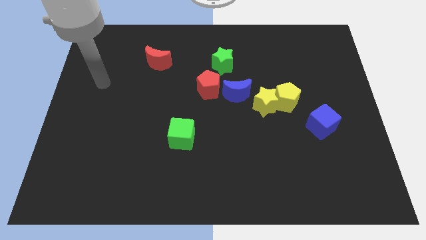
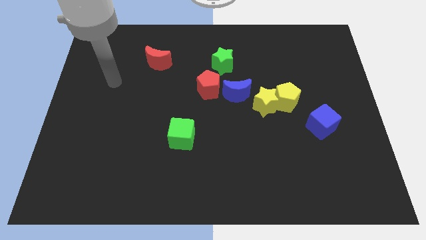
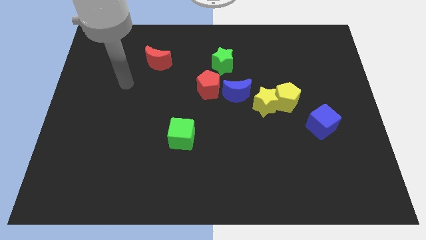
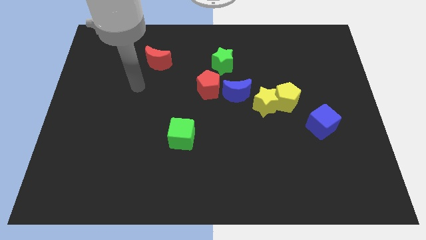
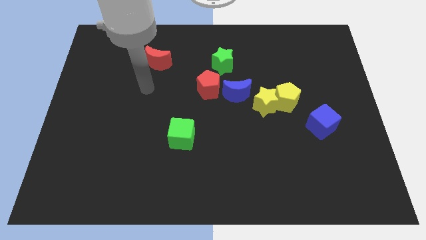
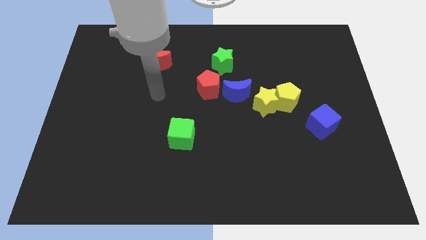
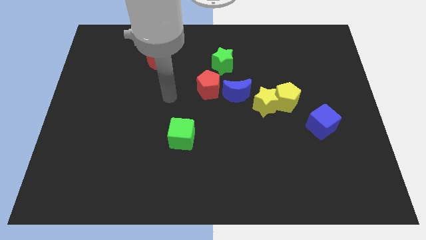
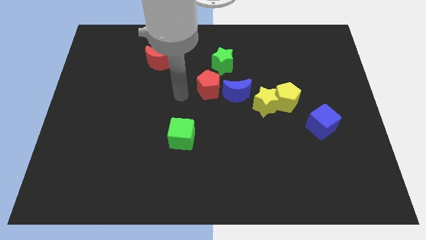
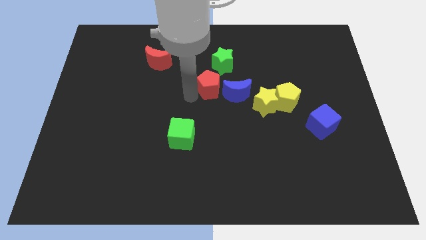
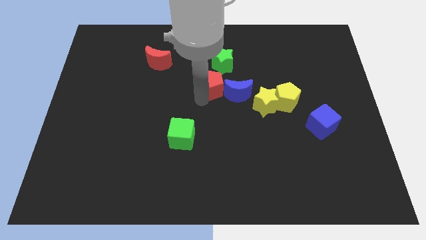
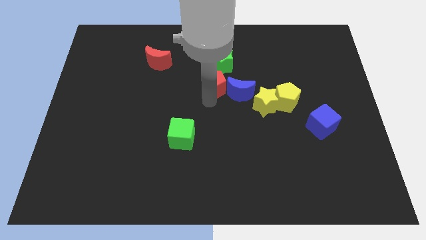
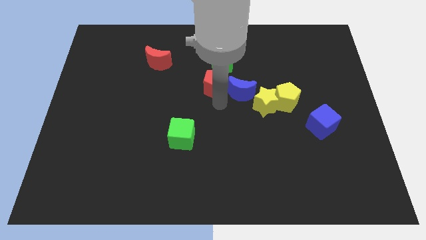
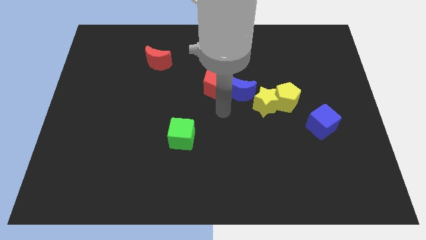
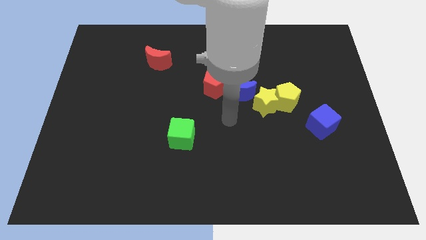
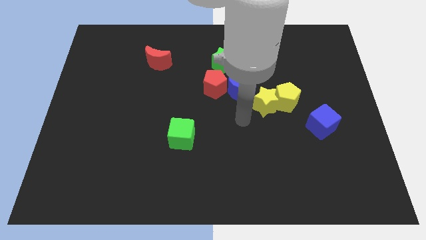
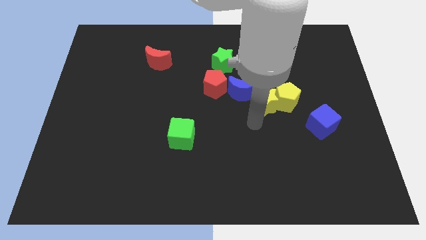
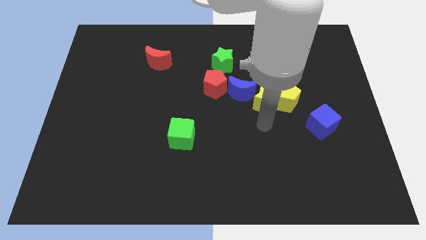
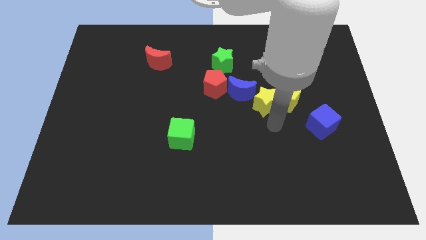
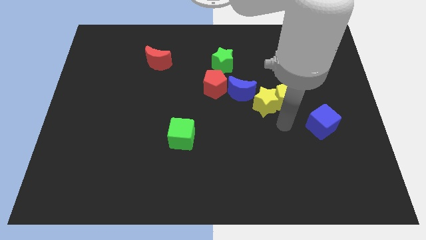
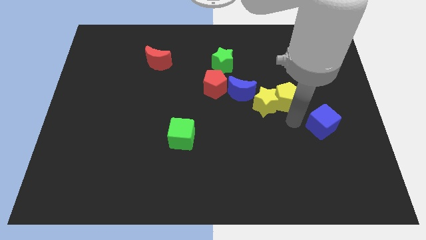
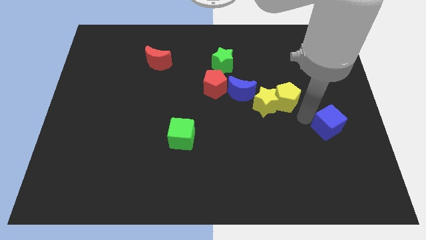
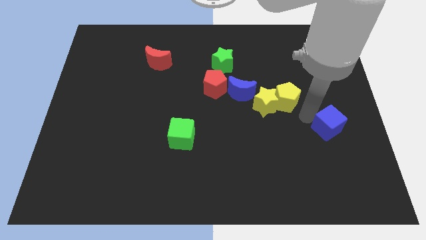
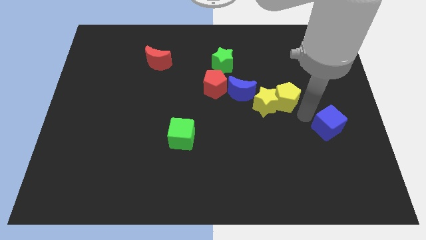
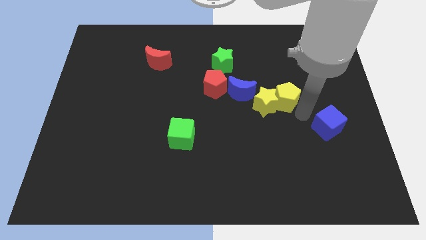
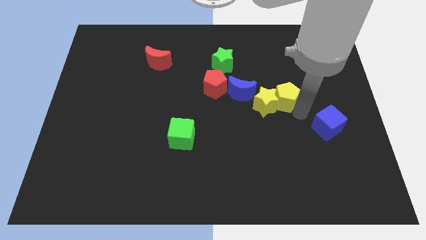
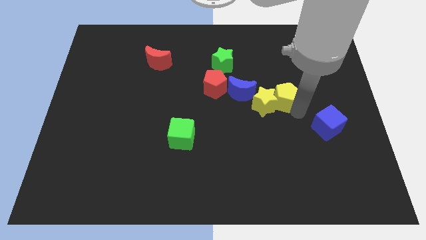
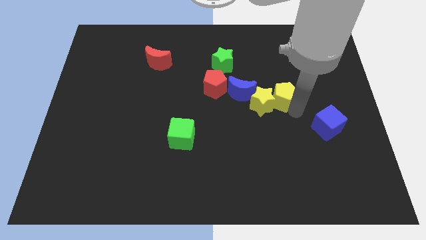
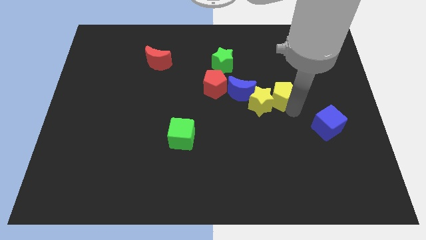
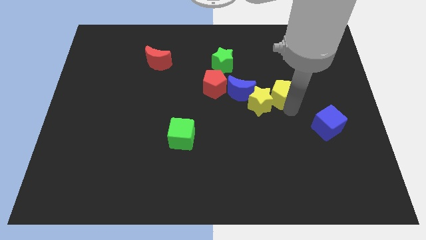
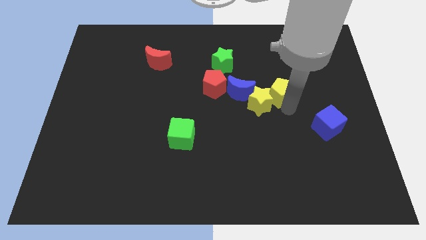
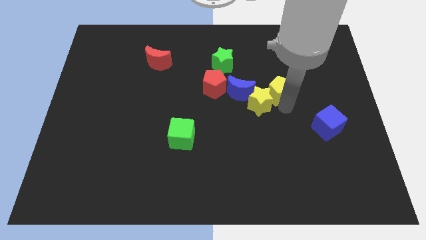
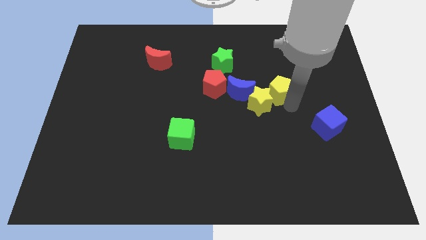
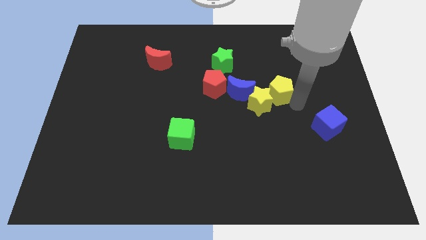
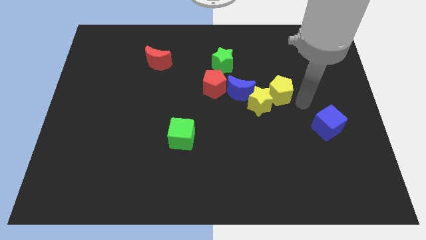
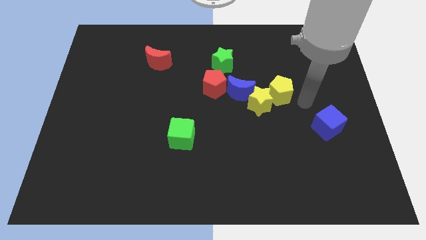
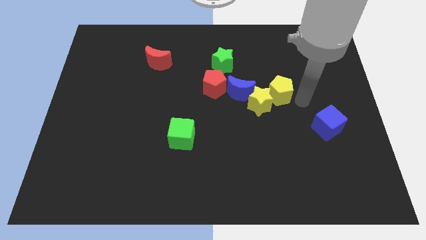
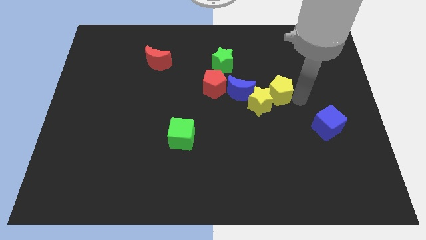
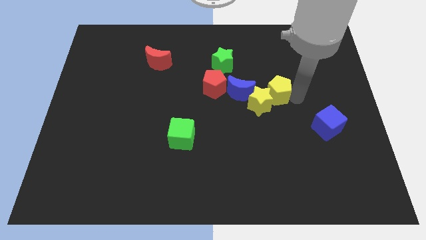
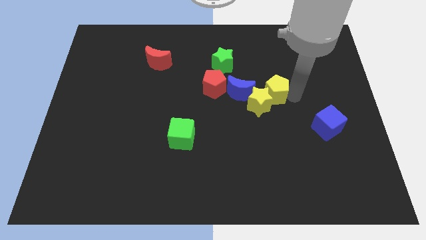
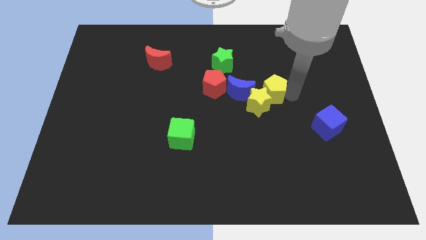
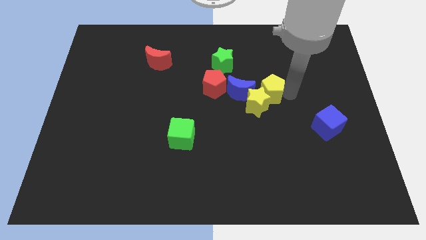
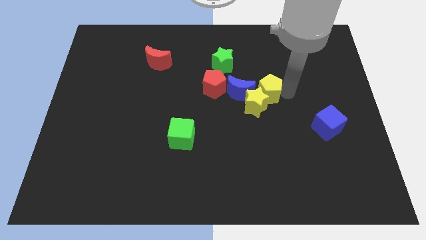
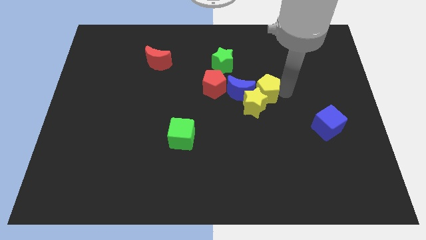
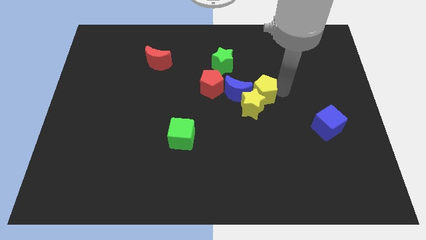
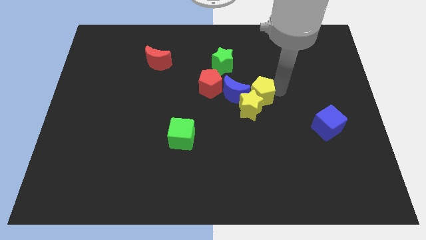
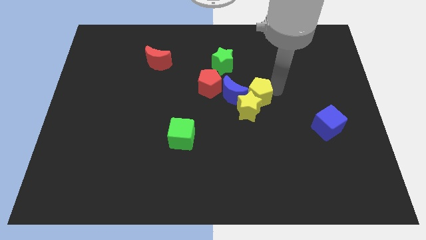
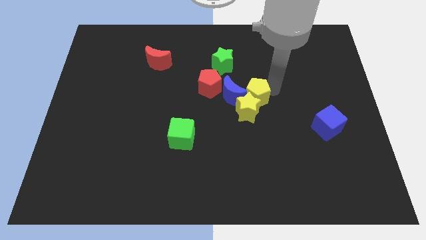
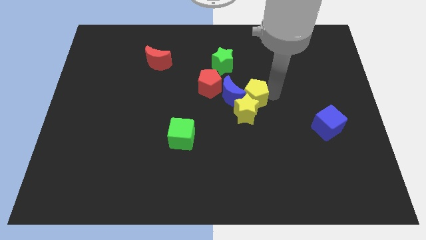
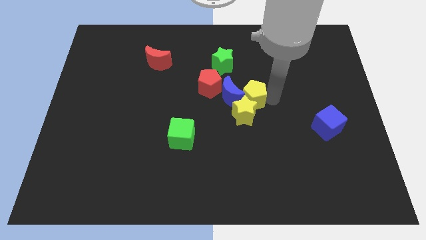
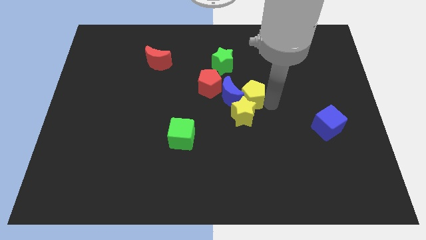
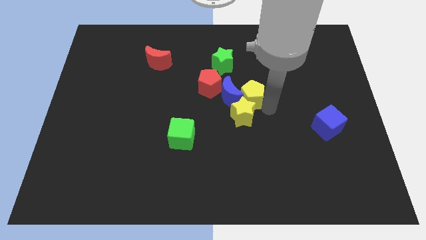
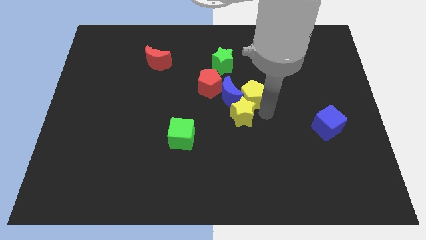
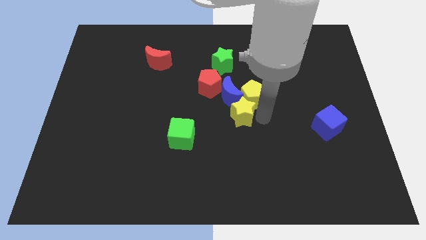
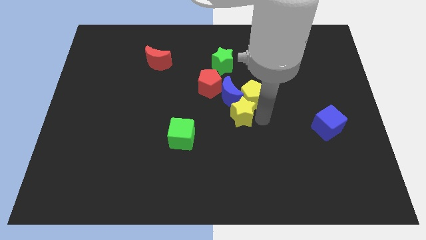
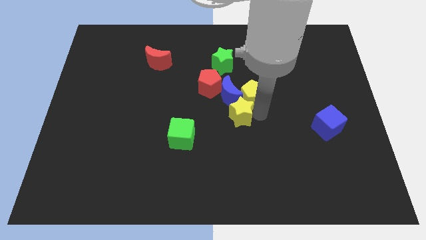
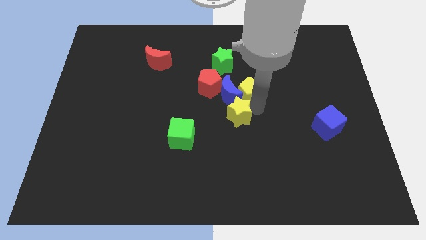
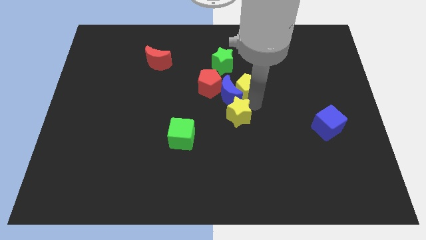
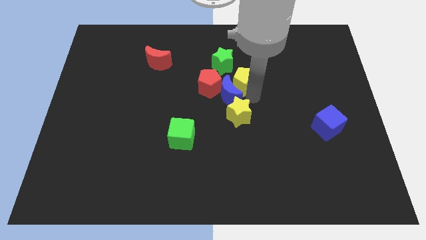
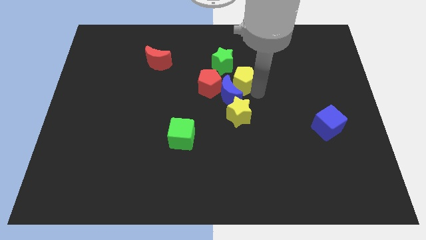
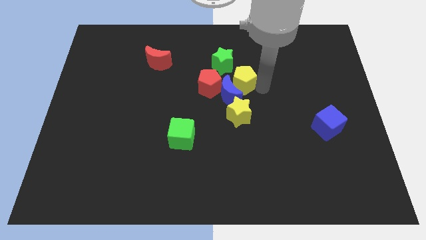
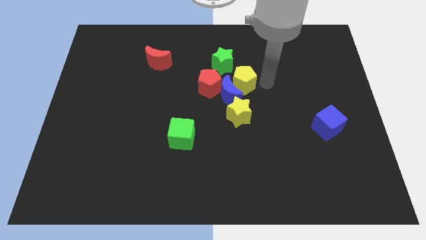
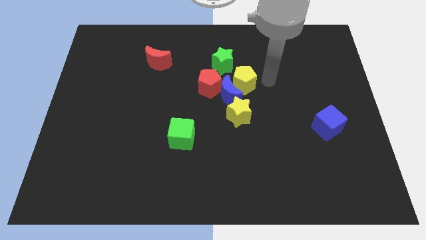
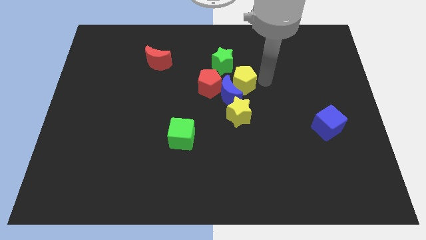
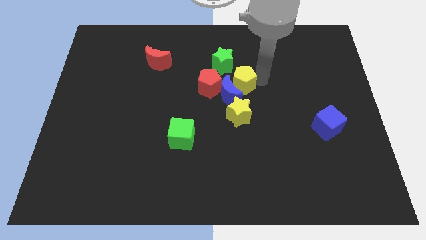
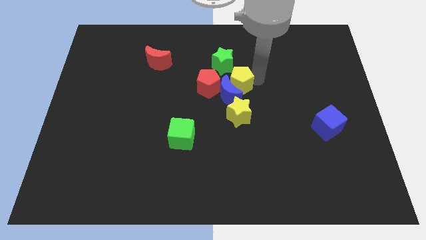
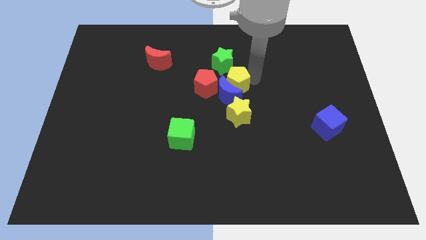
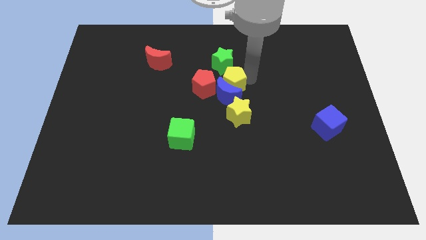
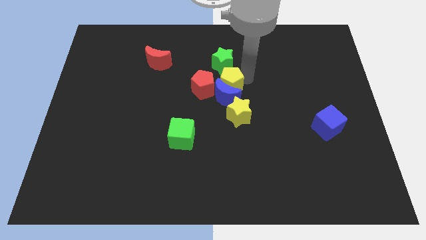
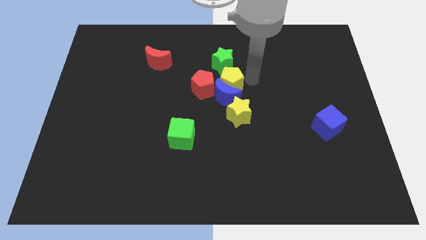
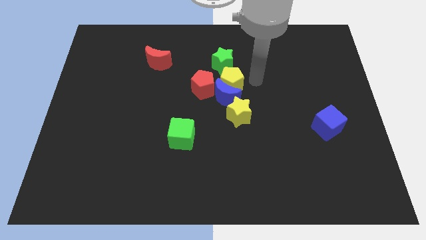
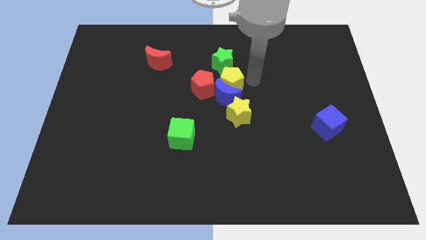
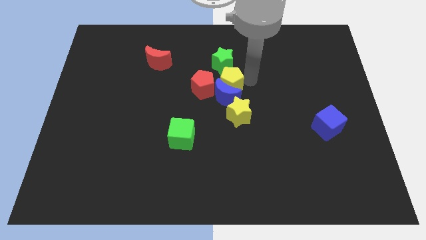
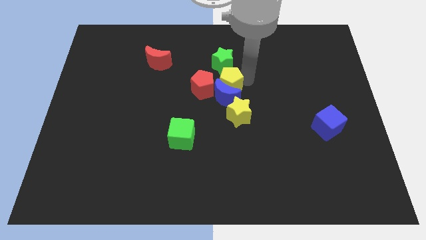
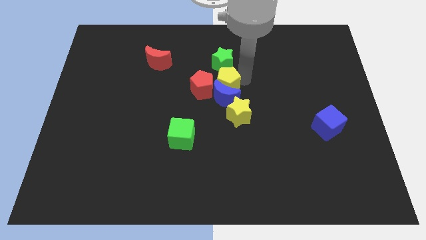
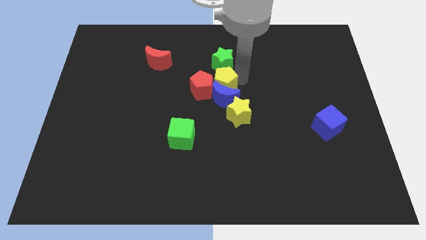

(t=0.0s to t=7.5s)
move the yellow pentagon next to the red pentagon
